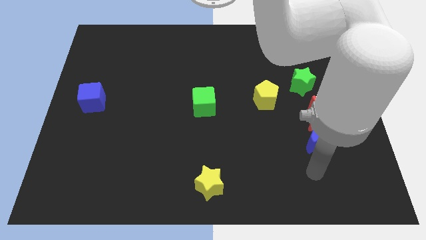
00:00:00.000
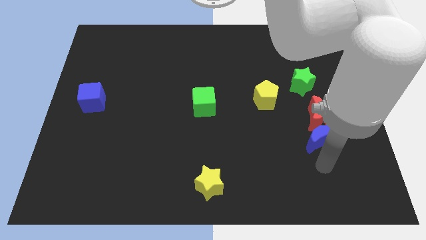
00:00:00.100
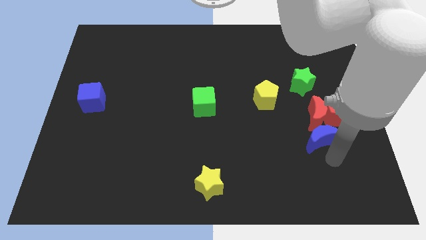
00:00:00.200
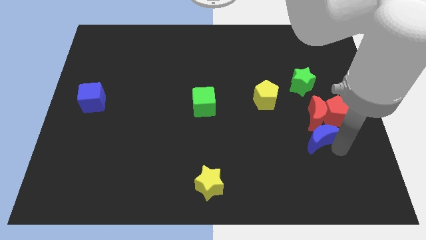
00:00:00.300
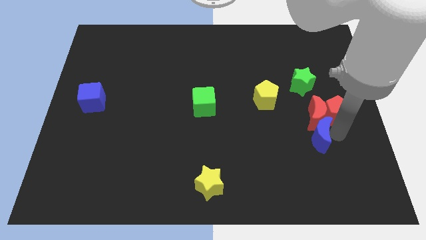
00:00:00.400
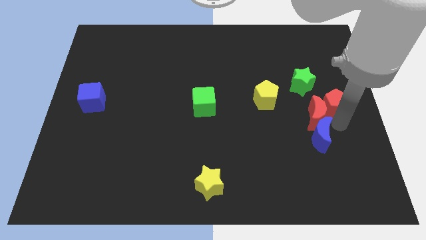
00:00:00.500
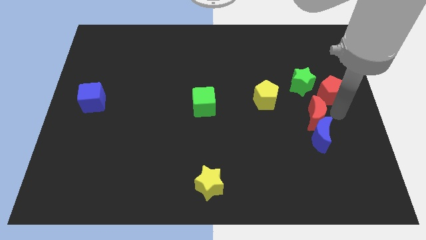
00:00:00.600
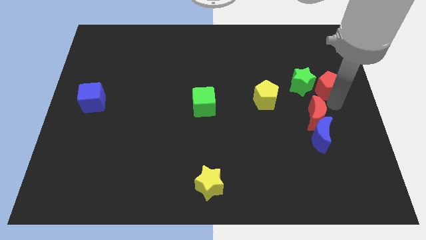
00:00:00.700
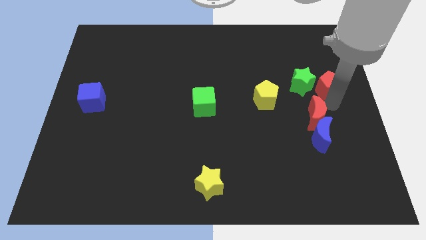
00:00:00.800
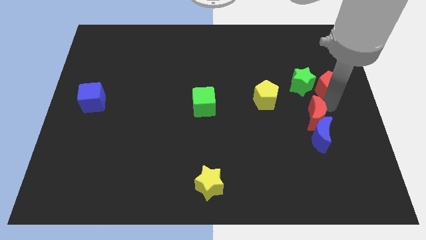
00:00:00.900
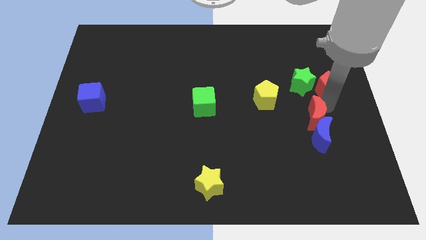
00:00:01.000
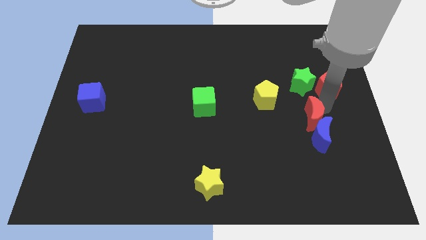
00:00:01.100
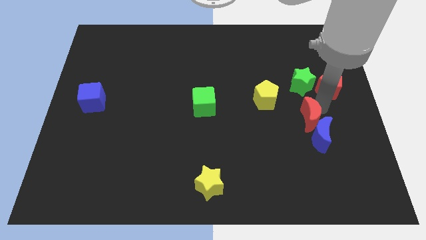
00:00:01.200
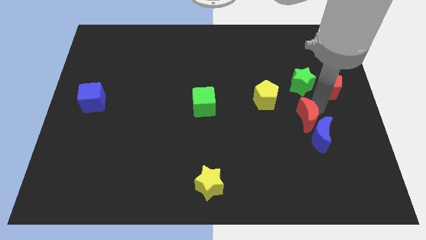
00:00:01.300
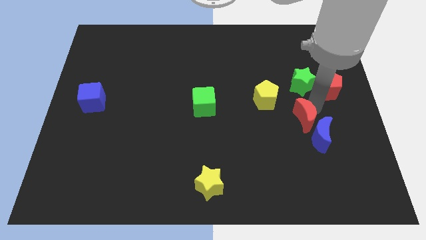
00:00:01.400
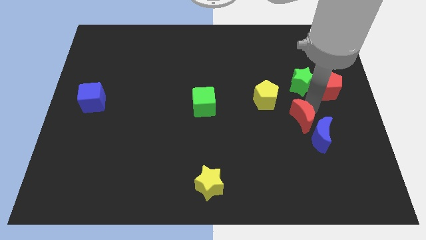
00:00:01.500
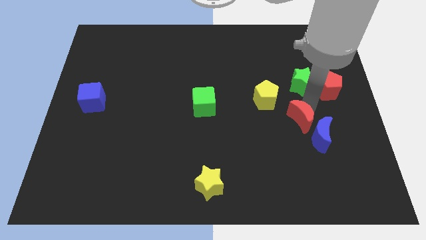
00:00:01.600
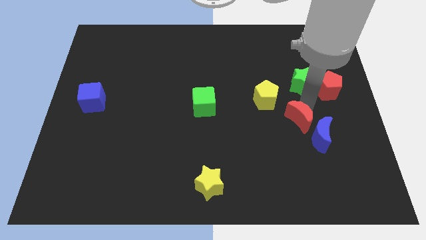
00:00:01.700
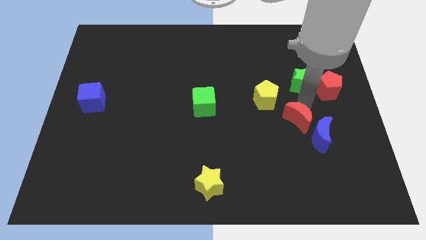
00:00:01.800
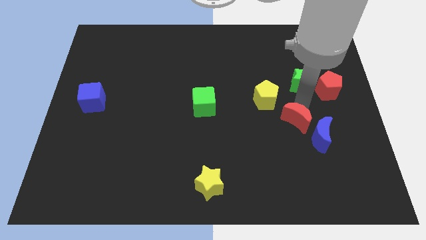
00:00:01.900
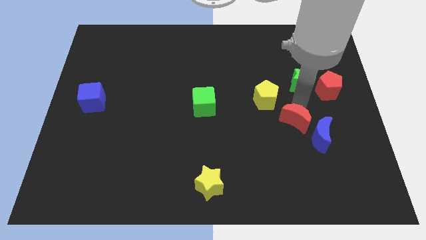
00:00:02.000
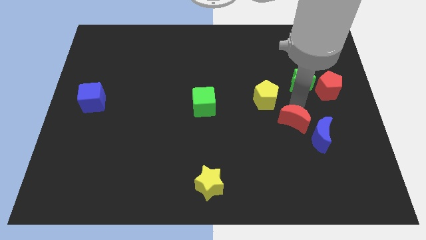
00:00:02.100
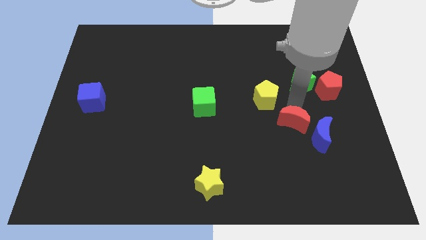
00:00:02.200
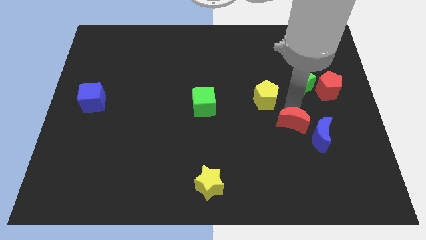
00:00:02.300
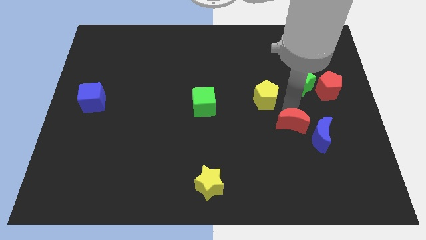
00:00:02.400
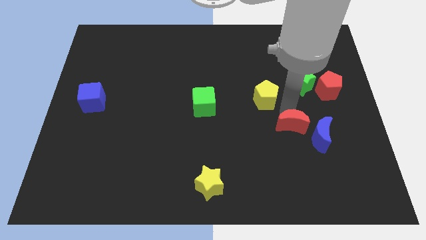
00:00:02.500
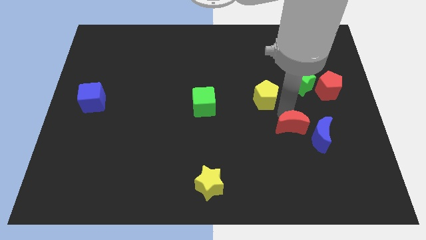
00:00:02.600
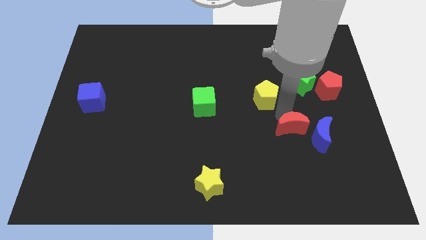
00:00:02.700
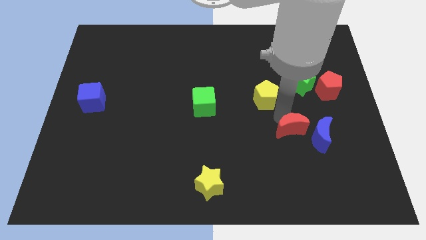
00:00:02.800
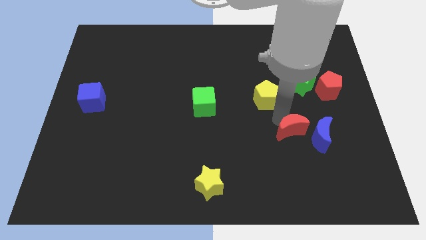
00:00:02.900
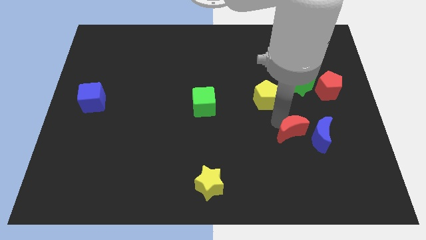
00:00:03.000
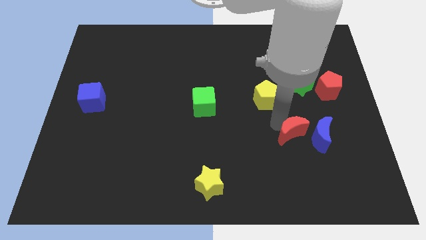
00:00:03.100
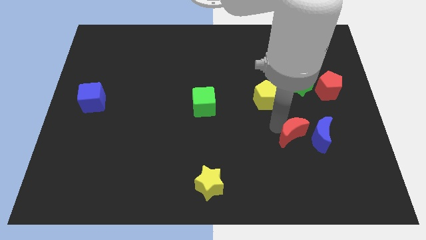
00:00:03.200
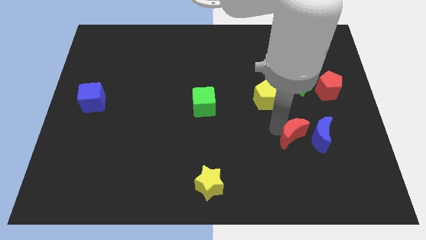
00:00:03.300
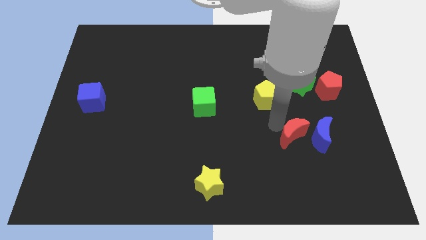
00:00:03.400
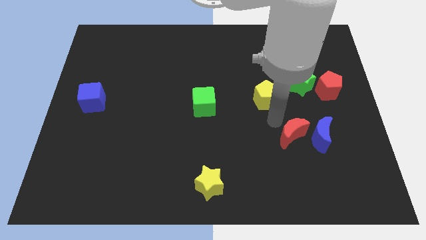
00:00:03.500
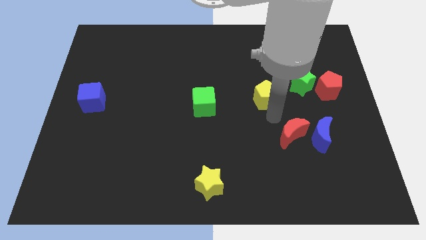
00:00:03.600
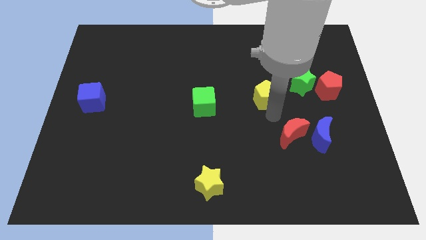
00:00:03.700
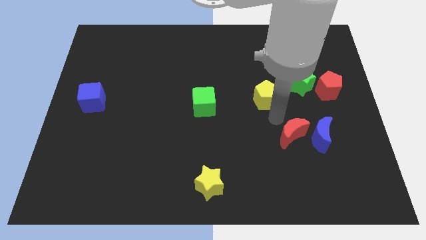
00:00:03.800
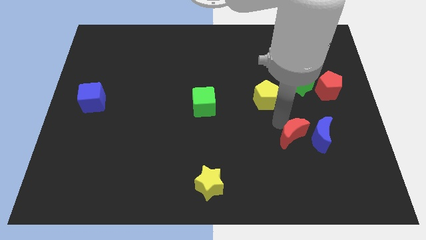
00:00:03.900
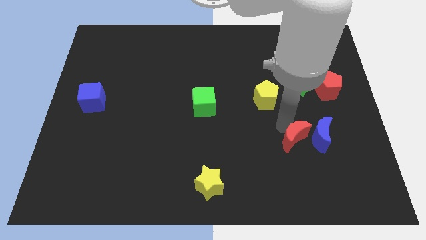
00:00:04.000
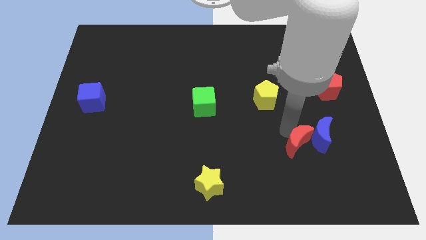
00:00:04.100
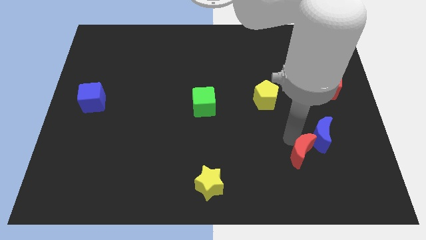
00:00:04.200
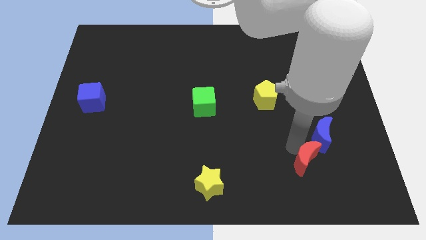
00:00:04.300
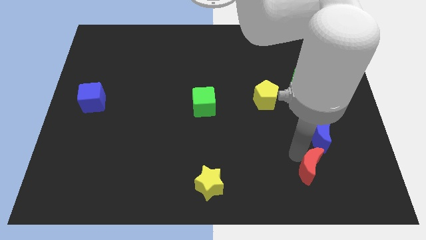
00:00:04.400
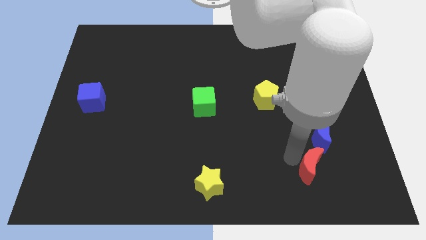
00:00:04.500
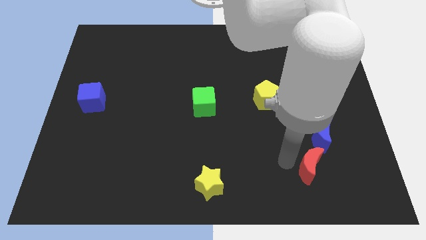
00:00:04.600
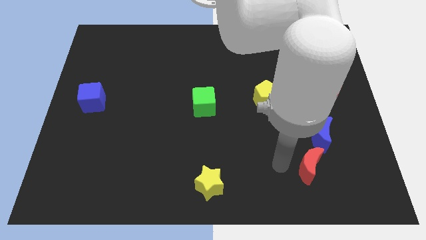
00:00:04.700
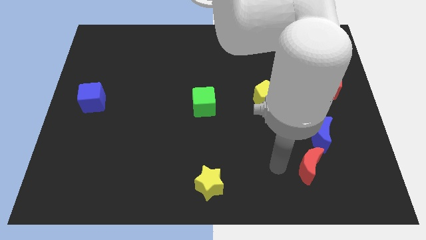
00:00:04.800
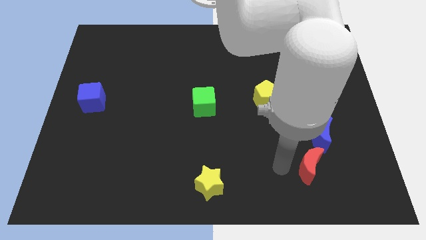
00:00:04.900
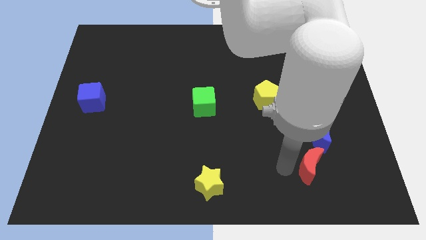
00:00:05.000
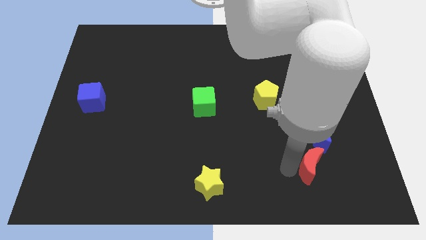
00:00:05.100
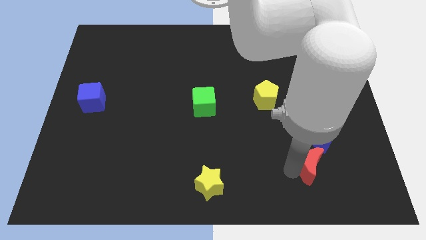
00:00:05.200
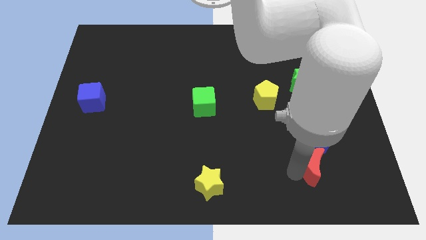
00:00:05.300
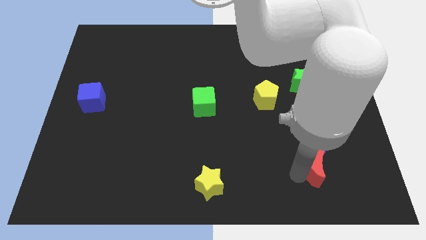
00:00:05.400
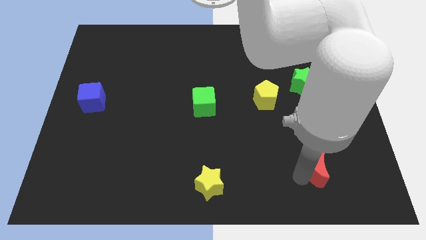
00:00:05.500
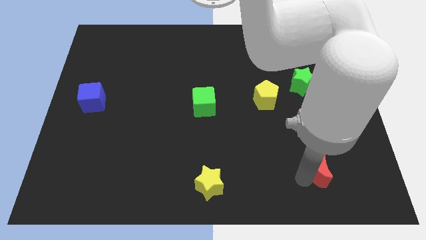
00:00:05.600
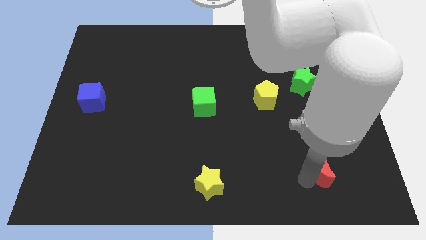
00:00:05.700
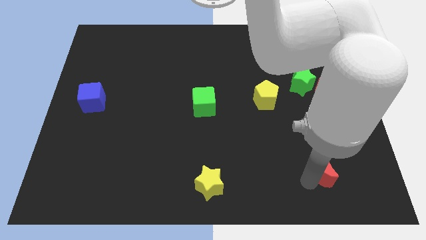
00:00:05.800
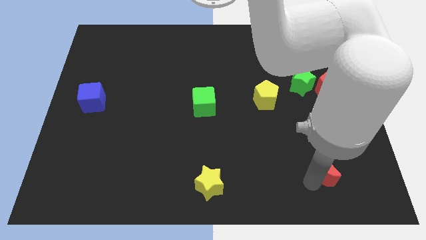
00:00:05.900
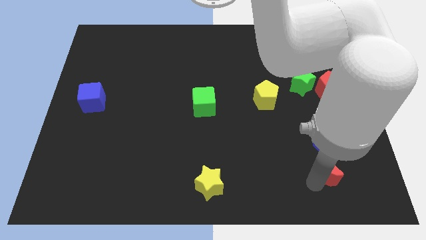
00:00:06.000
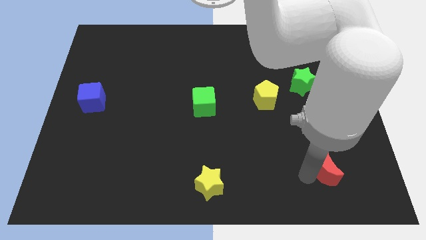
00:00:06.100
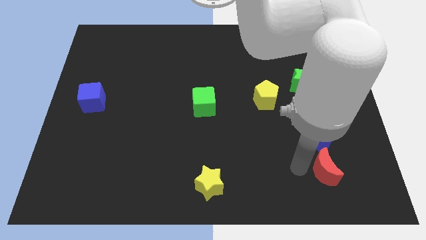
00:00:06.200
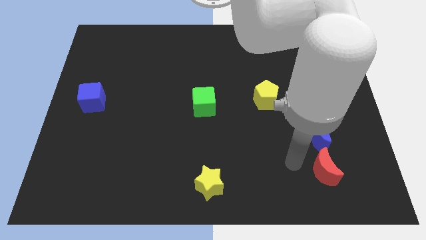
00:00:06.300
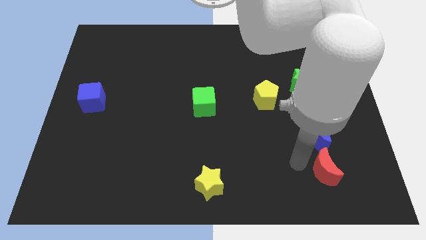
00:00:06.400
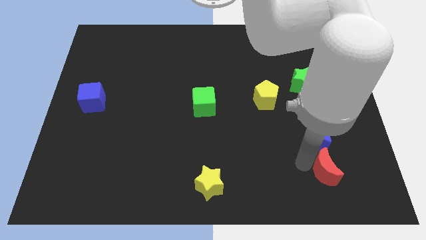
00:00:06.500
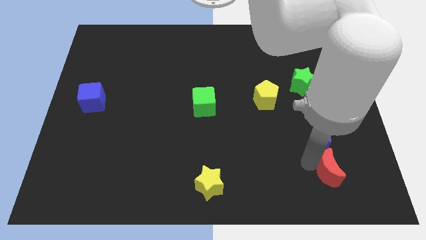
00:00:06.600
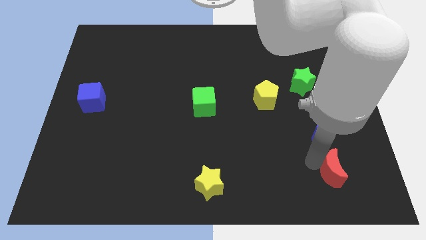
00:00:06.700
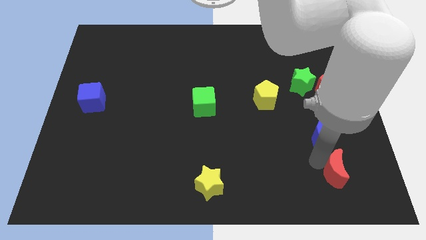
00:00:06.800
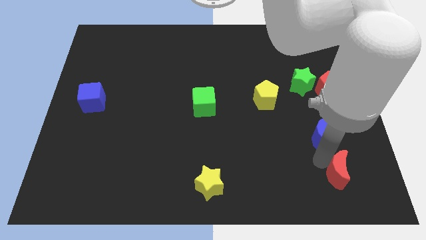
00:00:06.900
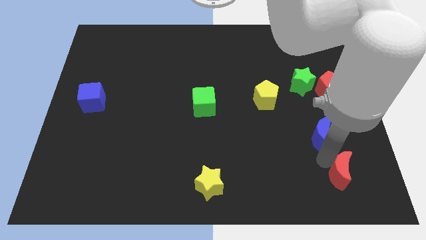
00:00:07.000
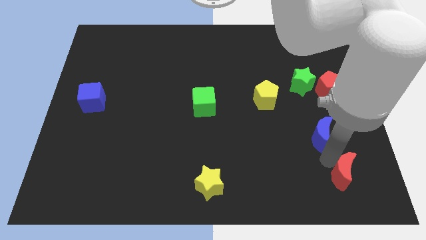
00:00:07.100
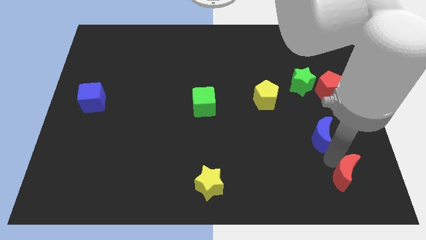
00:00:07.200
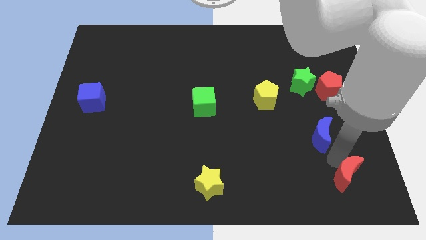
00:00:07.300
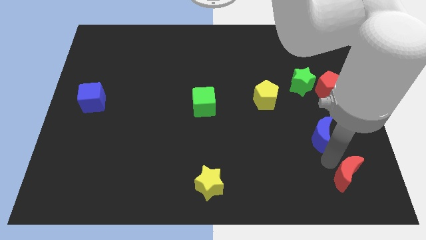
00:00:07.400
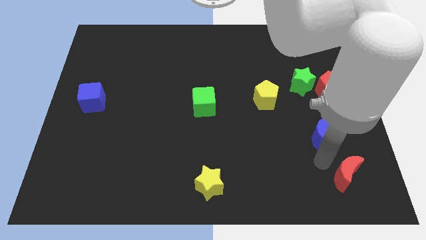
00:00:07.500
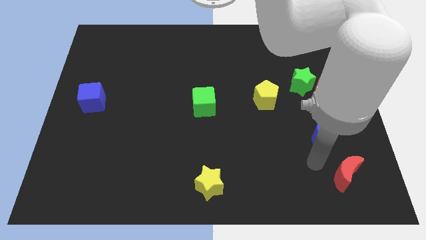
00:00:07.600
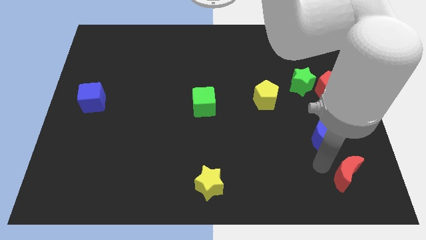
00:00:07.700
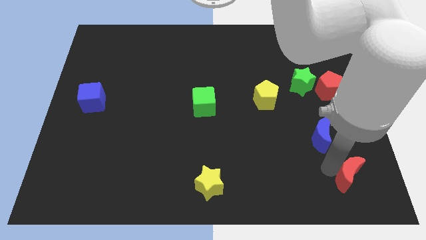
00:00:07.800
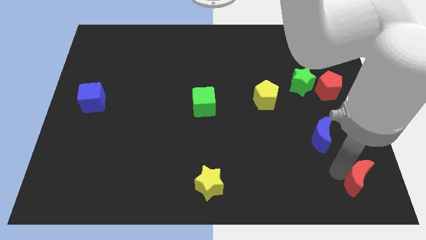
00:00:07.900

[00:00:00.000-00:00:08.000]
move the red moon to the bottom right of the board

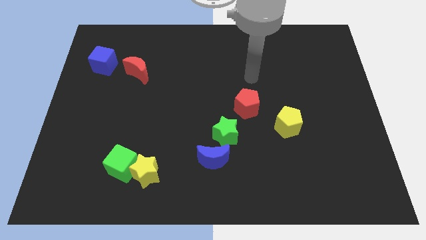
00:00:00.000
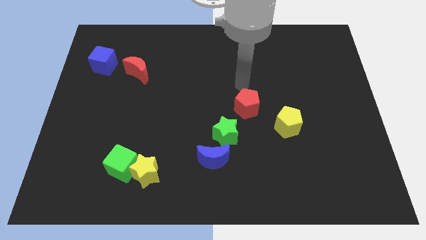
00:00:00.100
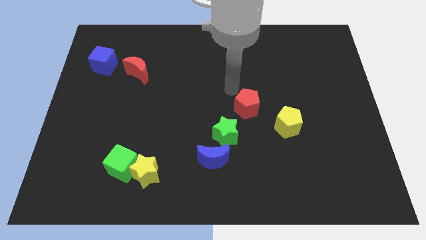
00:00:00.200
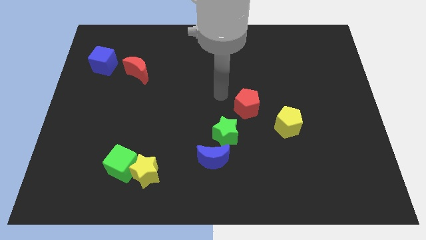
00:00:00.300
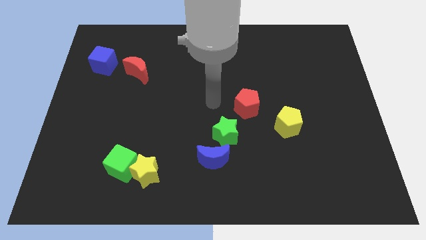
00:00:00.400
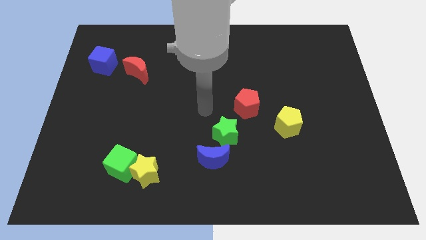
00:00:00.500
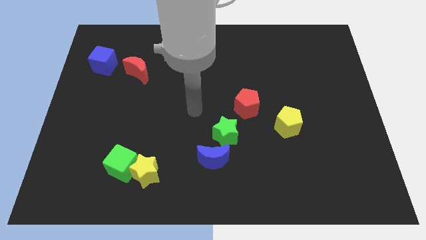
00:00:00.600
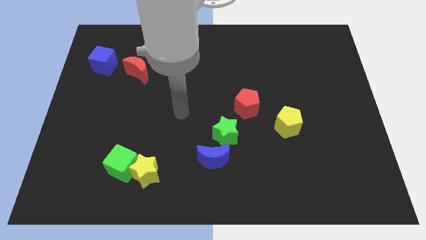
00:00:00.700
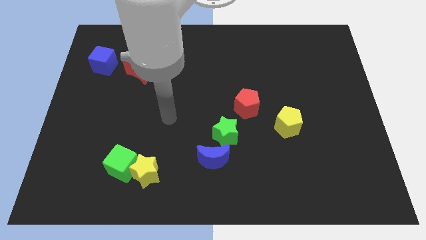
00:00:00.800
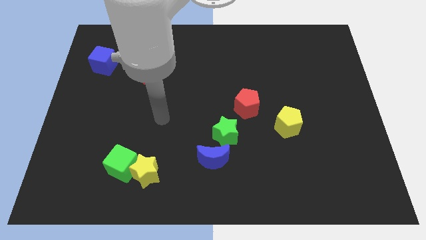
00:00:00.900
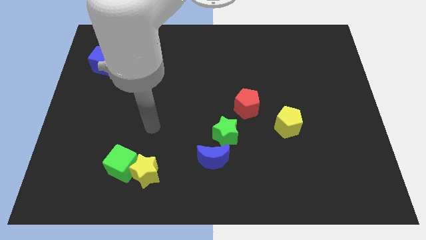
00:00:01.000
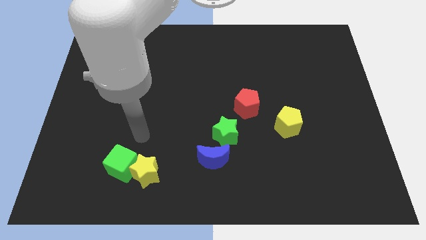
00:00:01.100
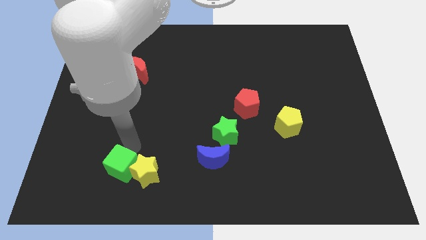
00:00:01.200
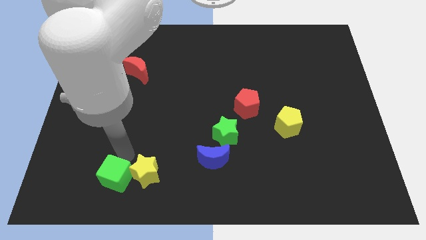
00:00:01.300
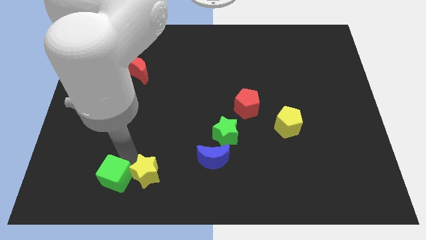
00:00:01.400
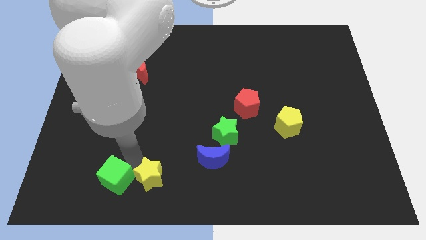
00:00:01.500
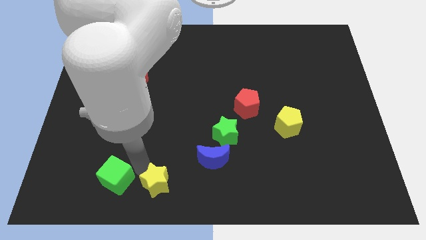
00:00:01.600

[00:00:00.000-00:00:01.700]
push the yellow star to the bottom side
